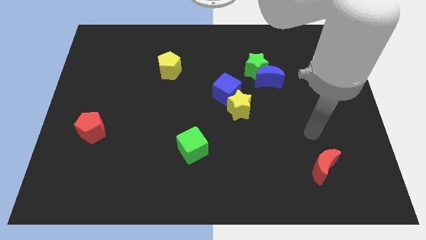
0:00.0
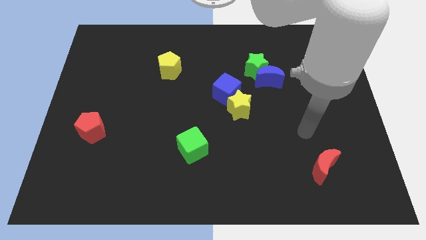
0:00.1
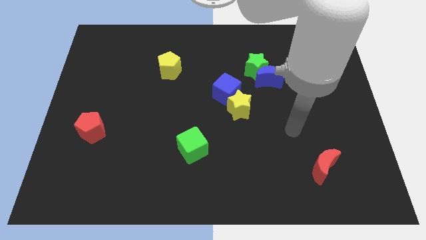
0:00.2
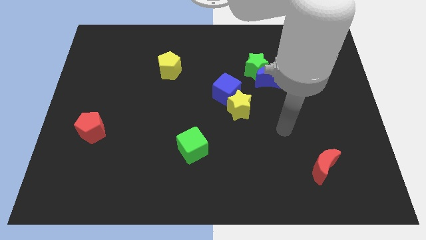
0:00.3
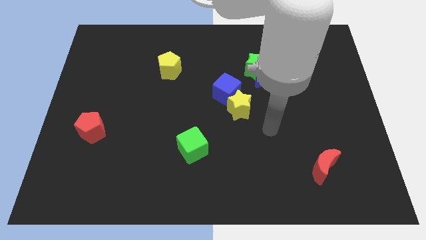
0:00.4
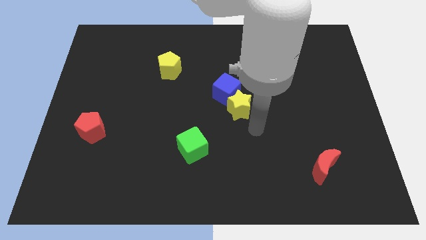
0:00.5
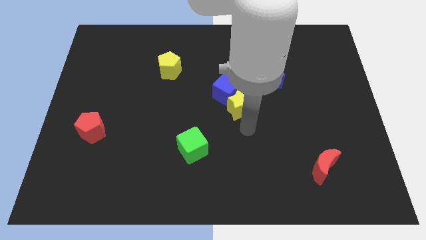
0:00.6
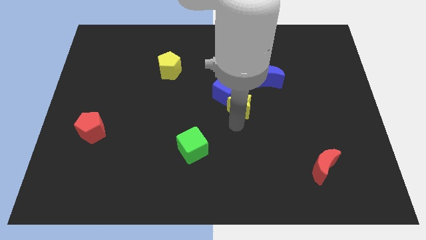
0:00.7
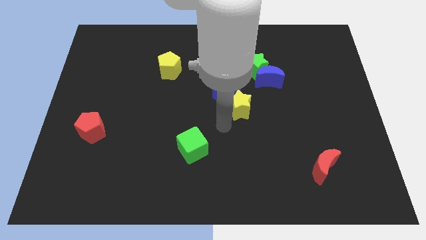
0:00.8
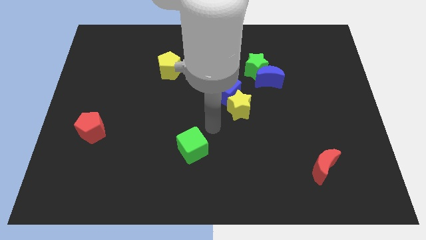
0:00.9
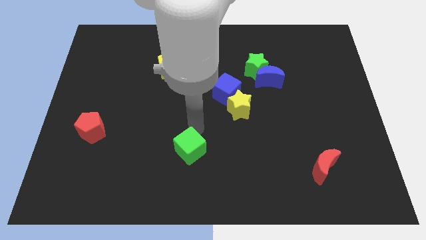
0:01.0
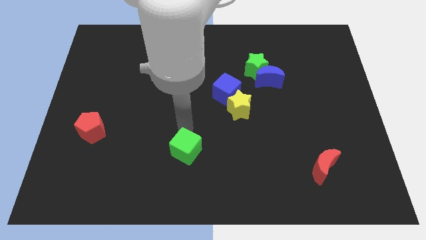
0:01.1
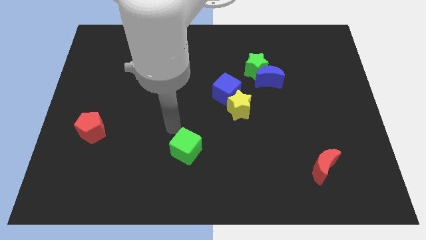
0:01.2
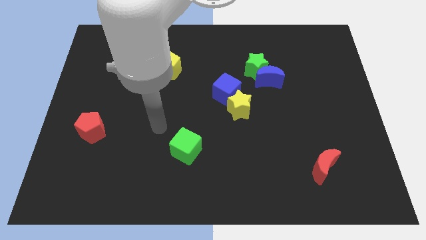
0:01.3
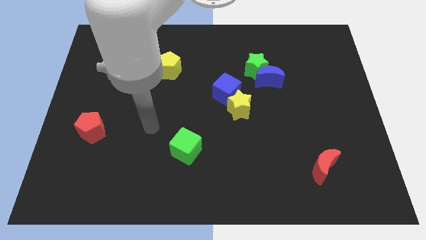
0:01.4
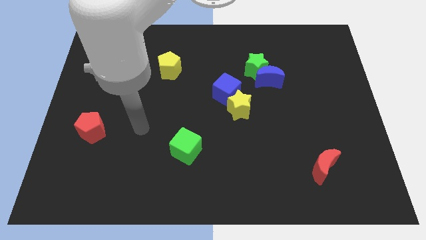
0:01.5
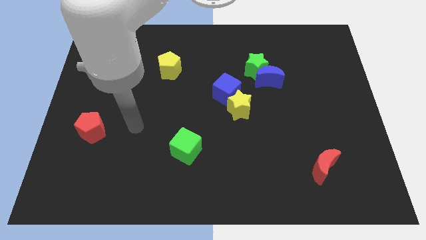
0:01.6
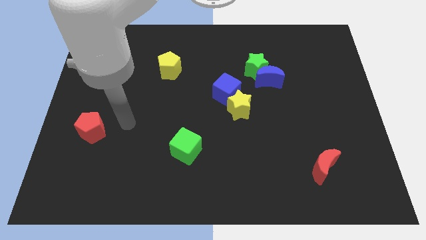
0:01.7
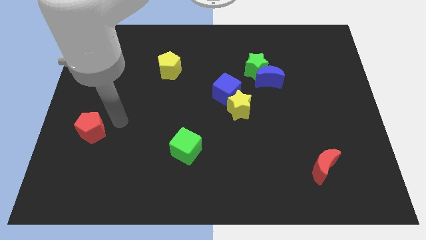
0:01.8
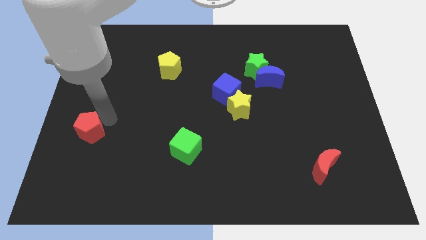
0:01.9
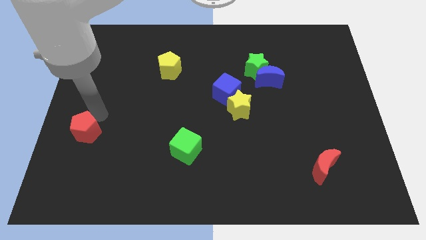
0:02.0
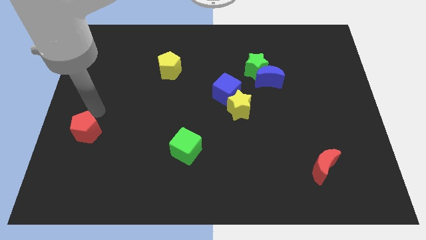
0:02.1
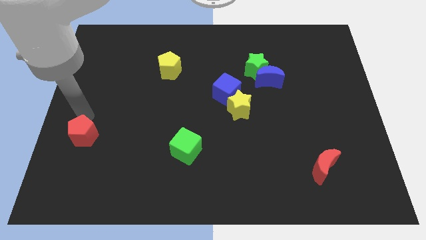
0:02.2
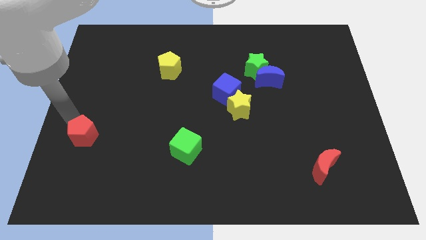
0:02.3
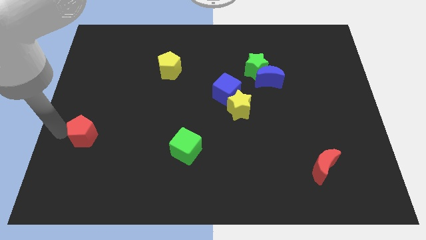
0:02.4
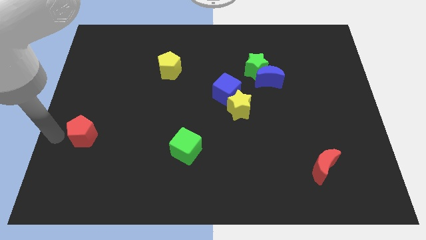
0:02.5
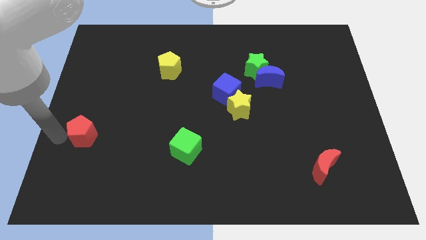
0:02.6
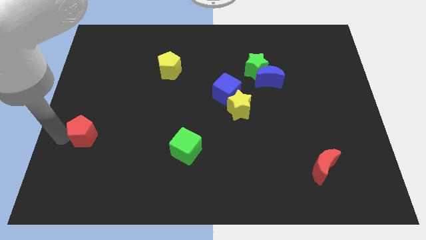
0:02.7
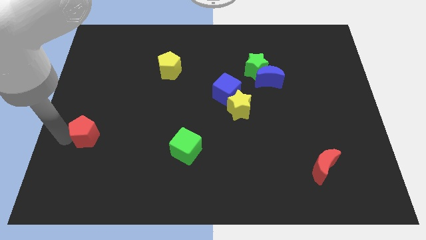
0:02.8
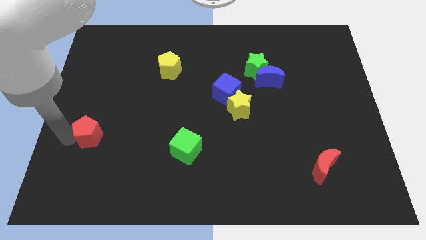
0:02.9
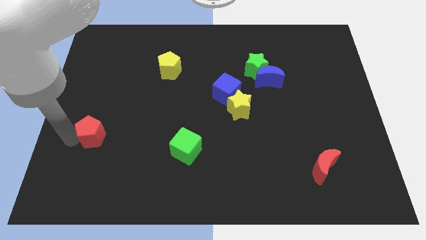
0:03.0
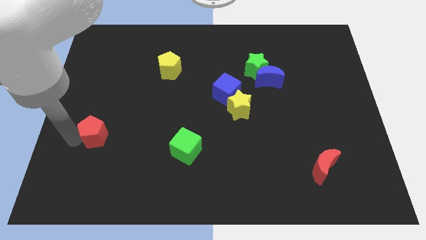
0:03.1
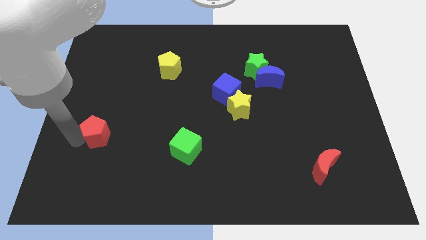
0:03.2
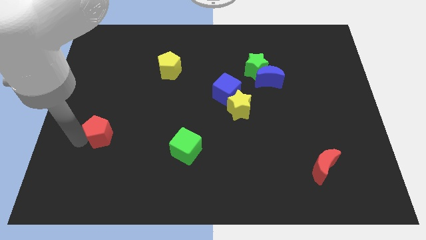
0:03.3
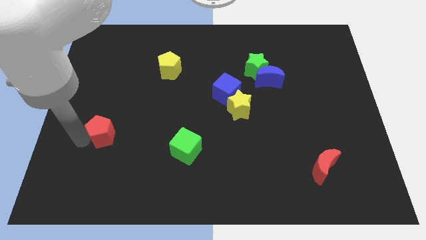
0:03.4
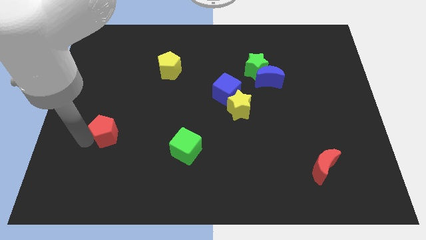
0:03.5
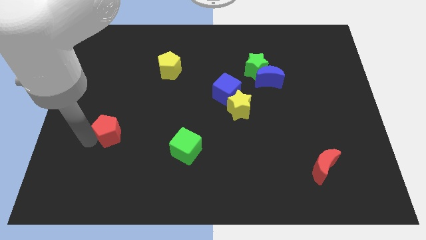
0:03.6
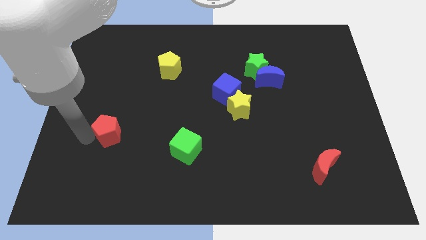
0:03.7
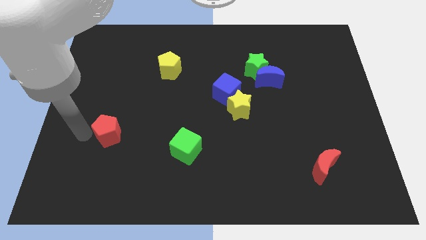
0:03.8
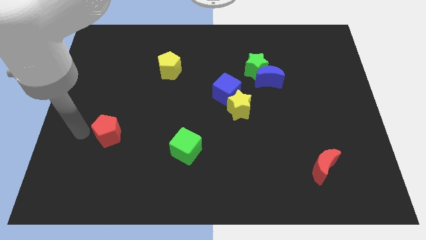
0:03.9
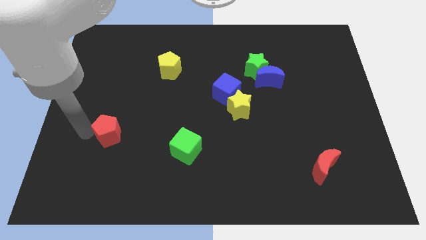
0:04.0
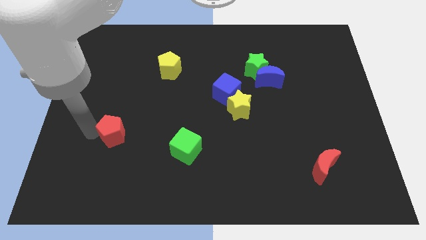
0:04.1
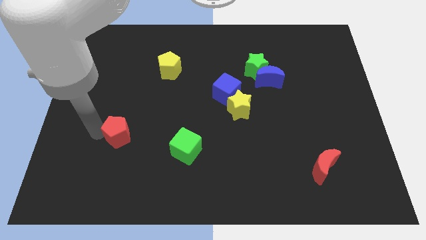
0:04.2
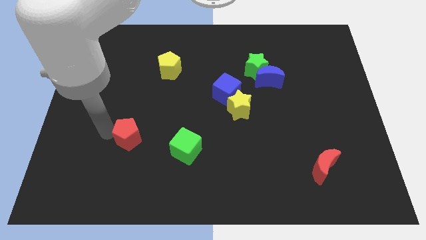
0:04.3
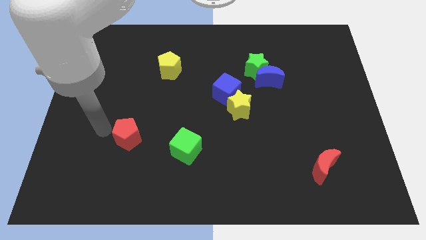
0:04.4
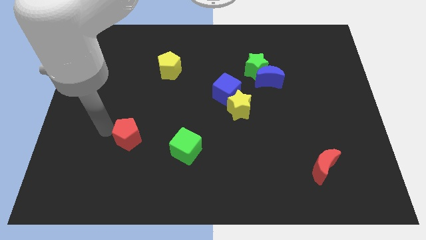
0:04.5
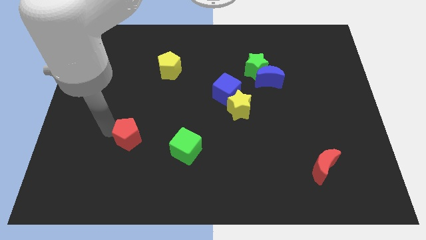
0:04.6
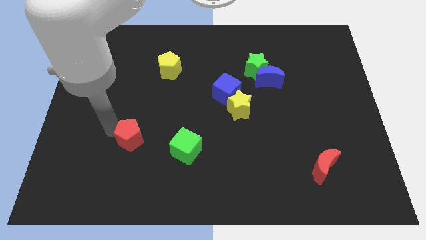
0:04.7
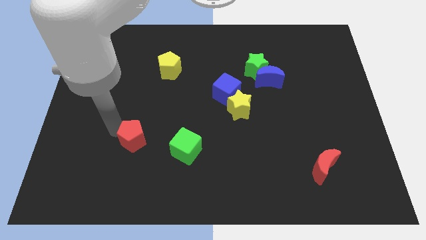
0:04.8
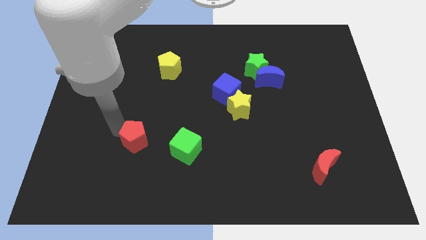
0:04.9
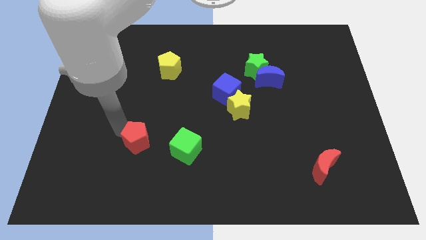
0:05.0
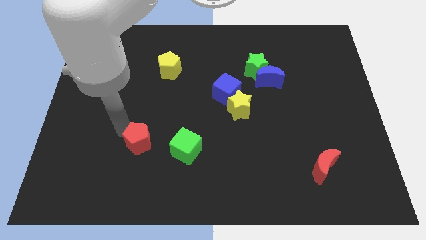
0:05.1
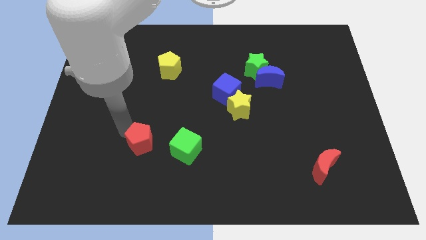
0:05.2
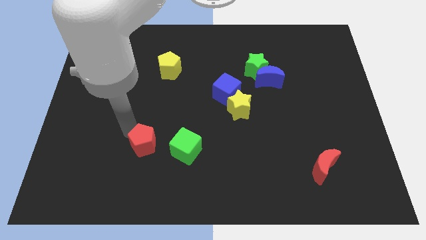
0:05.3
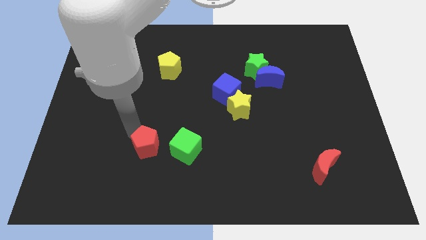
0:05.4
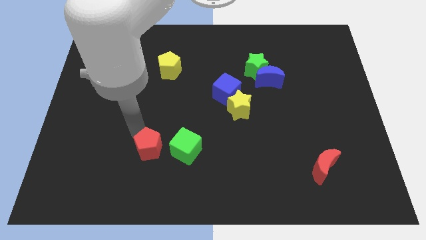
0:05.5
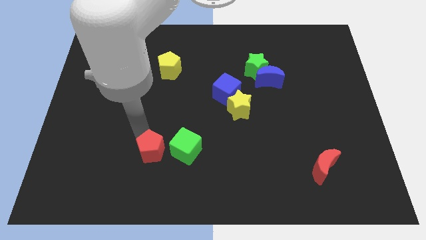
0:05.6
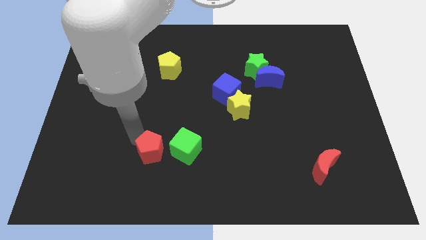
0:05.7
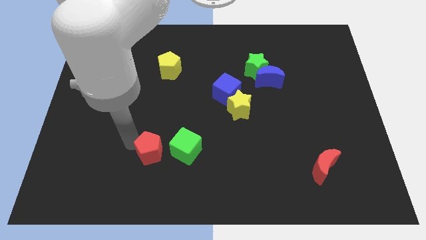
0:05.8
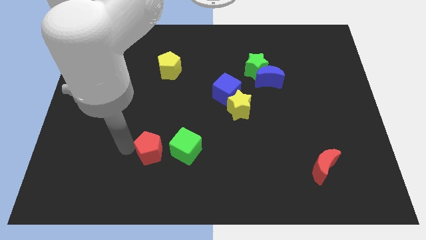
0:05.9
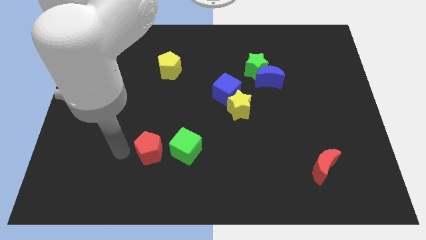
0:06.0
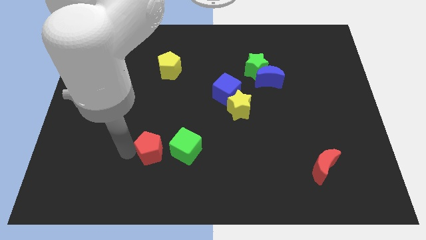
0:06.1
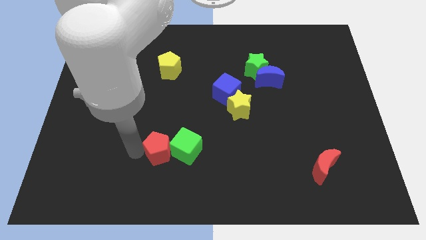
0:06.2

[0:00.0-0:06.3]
push the red pentagon towards the green cube

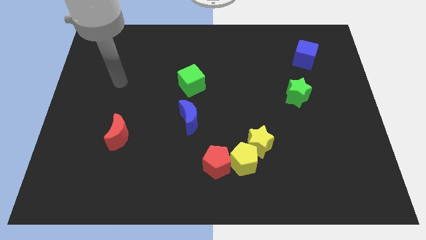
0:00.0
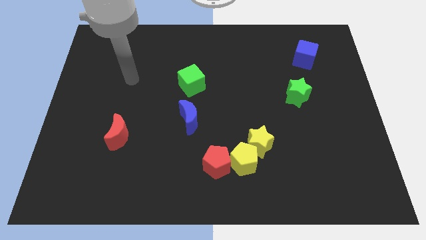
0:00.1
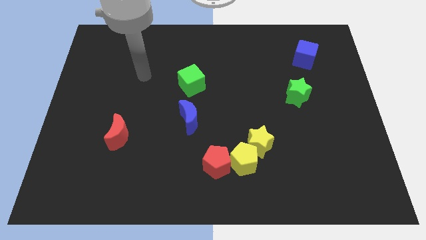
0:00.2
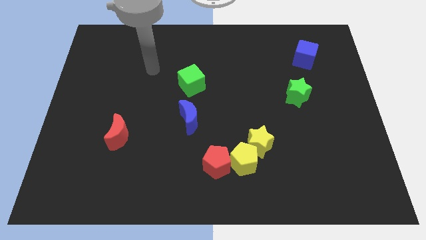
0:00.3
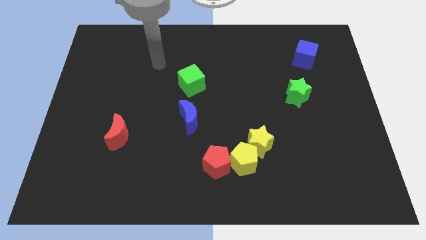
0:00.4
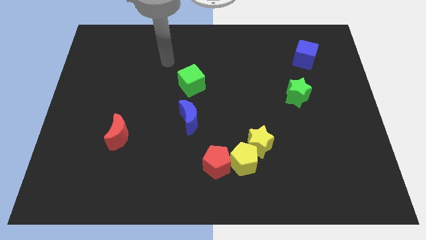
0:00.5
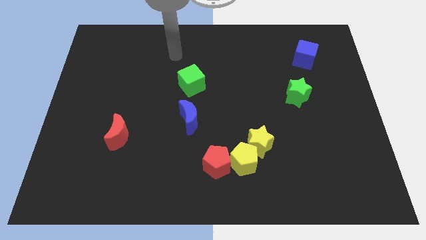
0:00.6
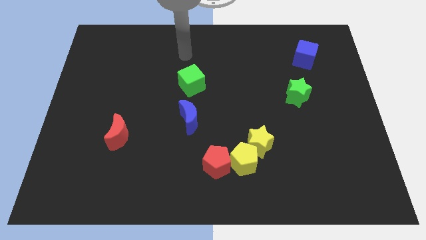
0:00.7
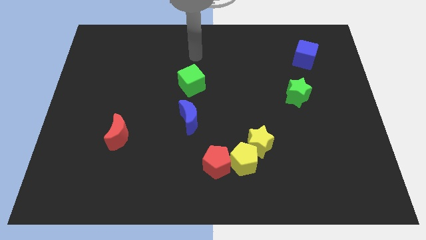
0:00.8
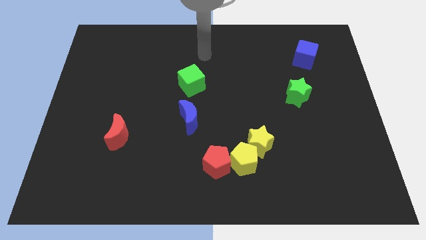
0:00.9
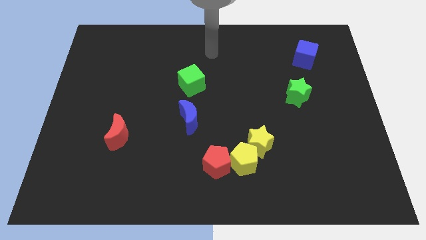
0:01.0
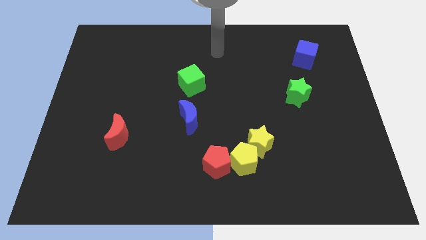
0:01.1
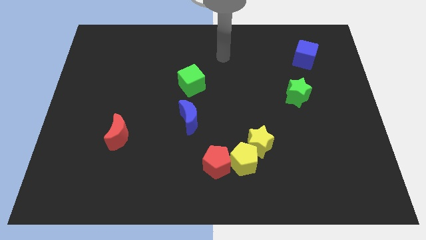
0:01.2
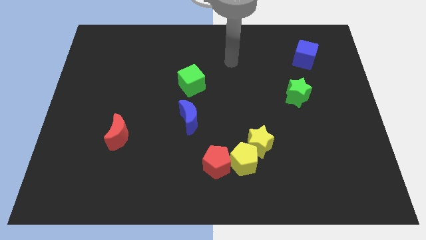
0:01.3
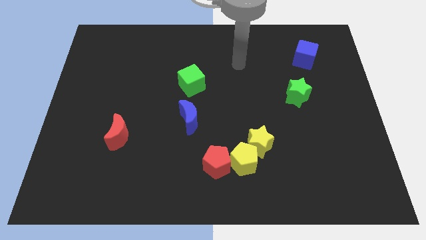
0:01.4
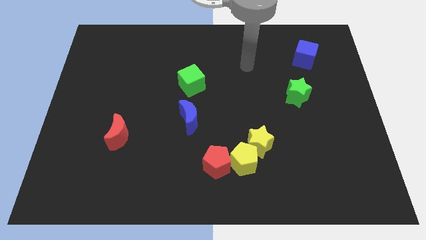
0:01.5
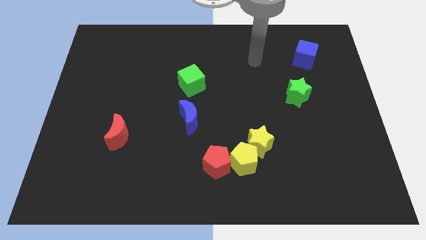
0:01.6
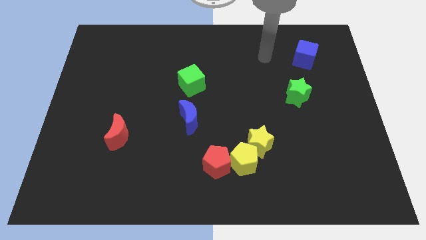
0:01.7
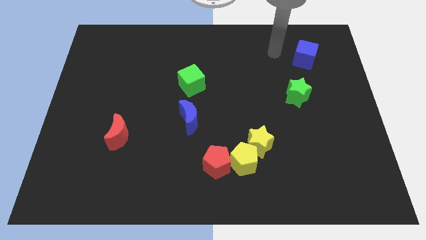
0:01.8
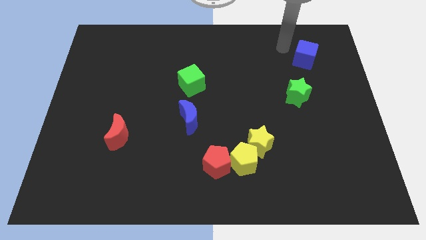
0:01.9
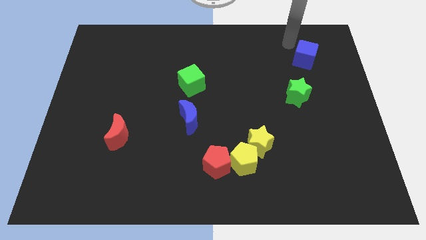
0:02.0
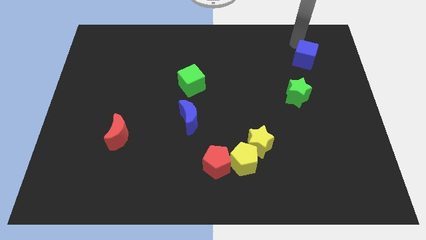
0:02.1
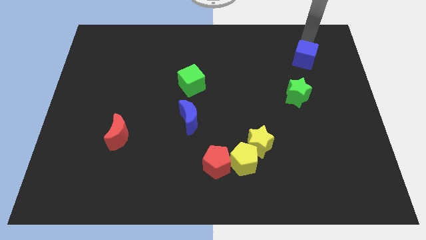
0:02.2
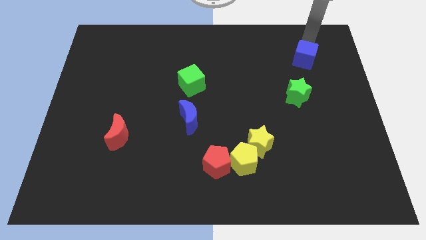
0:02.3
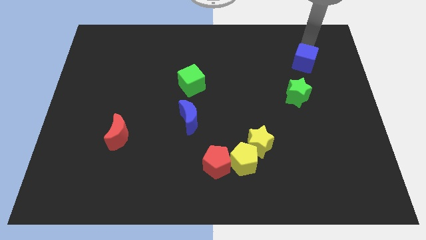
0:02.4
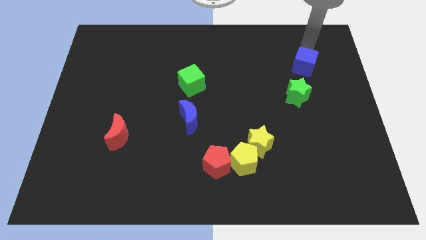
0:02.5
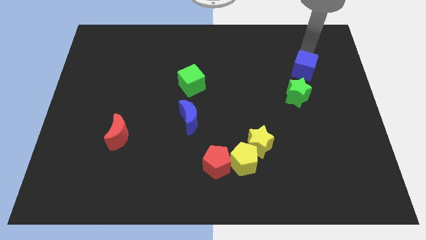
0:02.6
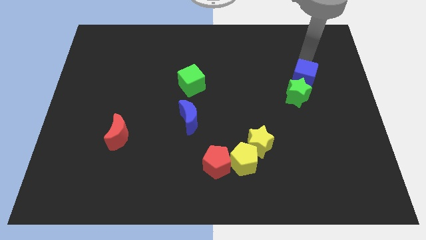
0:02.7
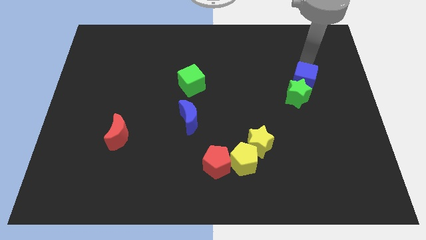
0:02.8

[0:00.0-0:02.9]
move the blue cube close to the green star
